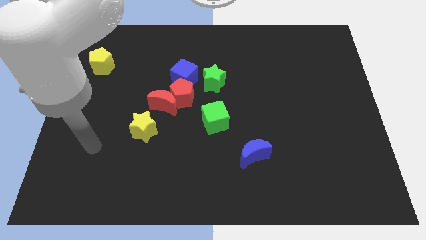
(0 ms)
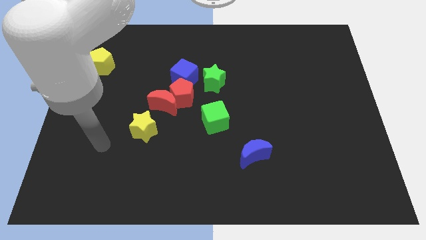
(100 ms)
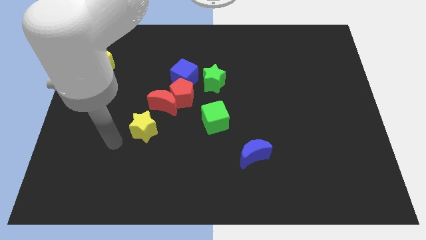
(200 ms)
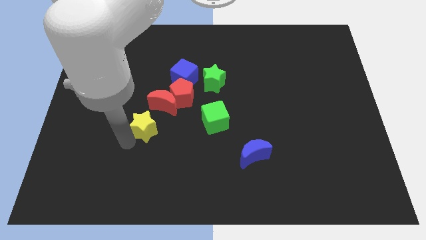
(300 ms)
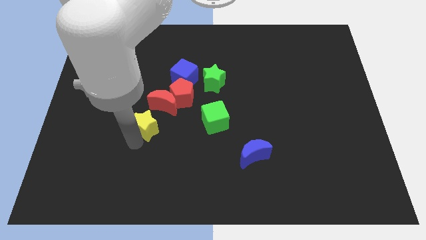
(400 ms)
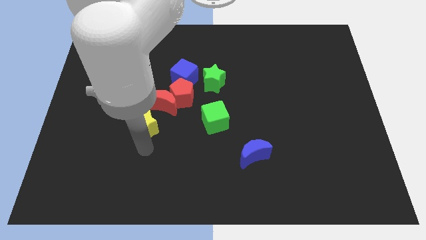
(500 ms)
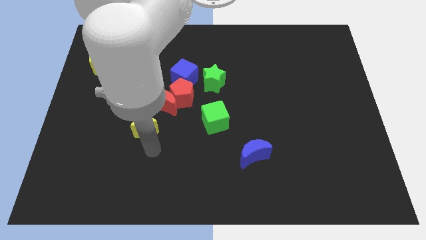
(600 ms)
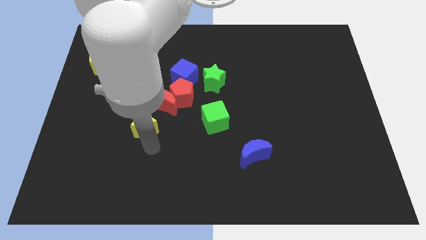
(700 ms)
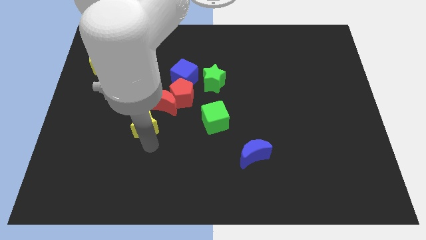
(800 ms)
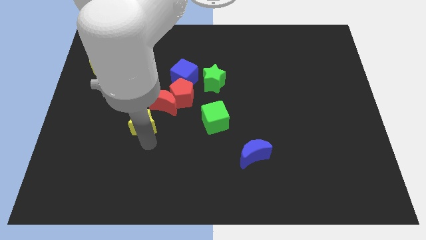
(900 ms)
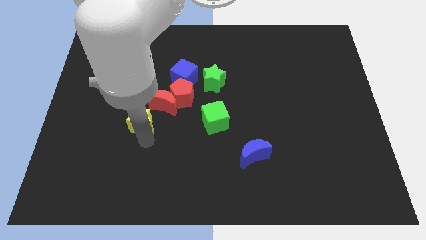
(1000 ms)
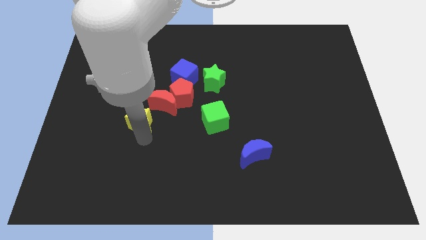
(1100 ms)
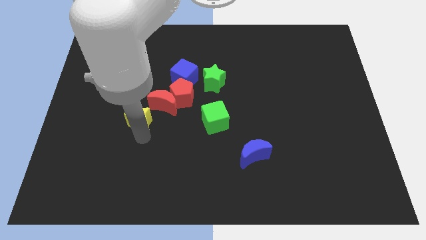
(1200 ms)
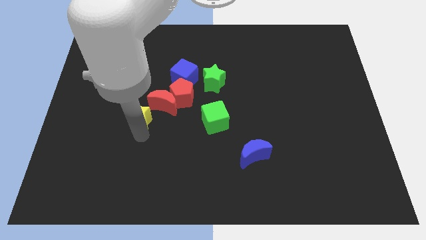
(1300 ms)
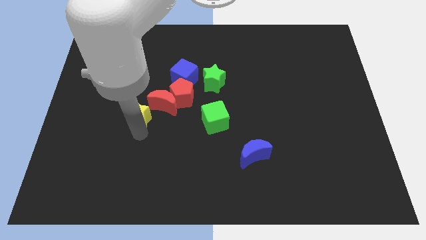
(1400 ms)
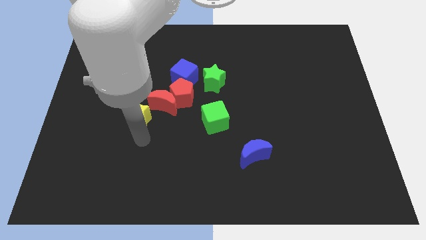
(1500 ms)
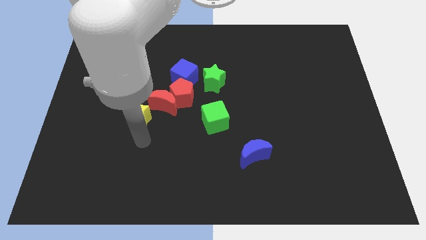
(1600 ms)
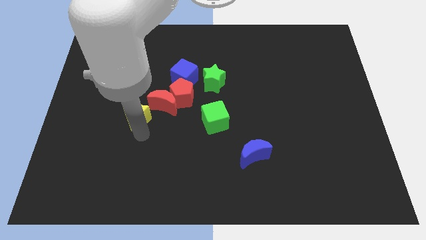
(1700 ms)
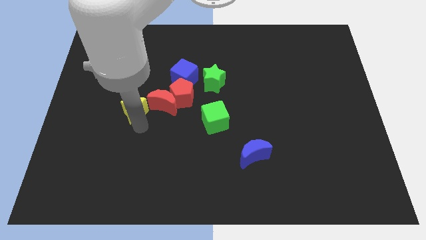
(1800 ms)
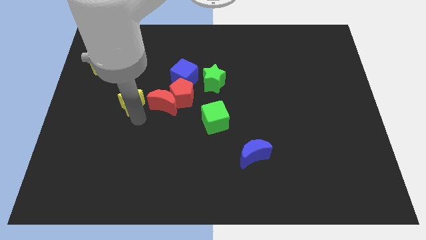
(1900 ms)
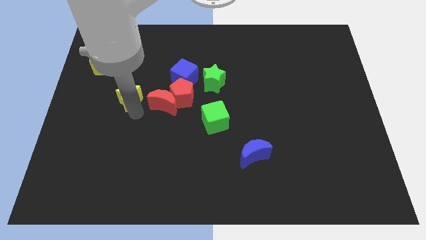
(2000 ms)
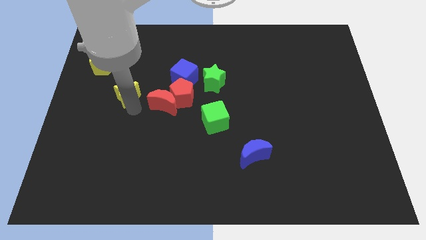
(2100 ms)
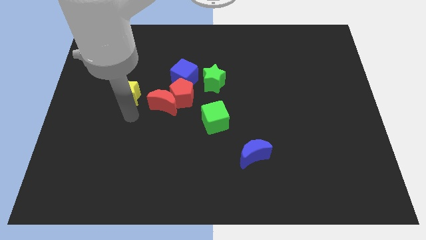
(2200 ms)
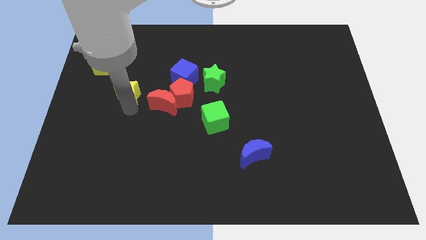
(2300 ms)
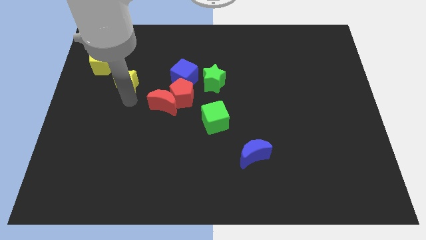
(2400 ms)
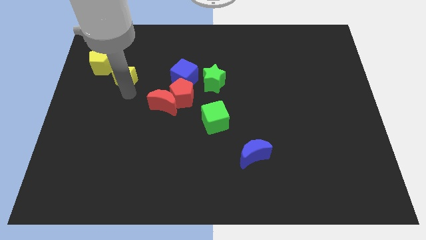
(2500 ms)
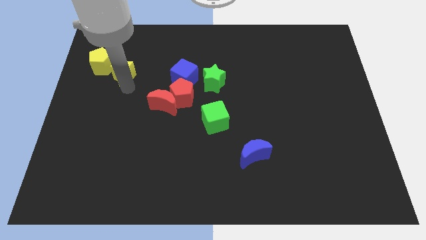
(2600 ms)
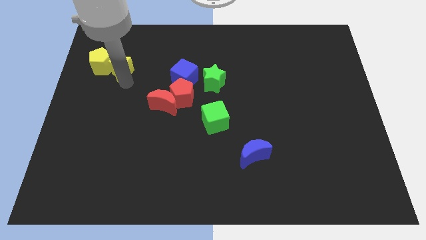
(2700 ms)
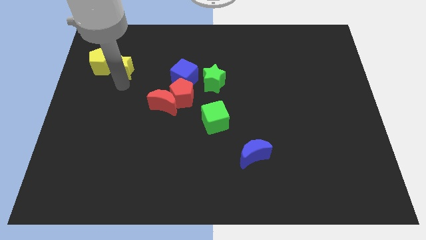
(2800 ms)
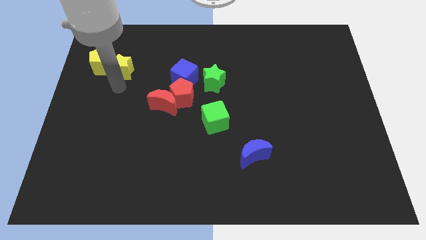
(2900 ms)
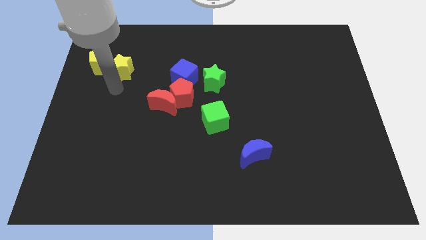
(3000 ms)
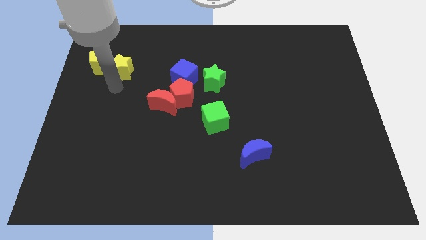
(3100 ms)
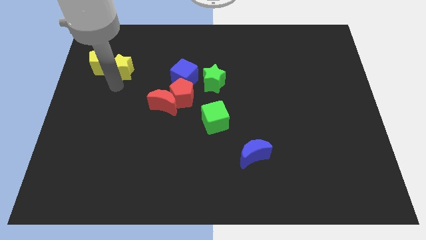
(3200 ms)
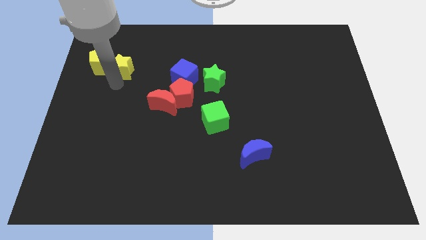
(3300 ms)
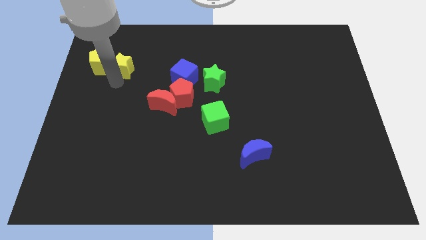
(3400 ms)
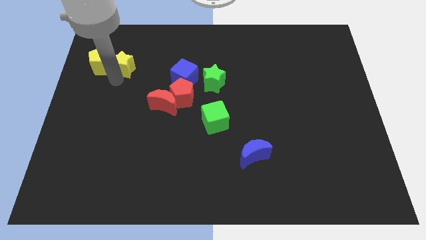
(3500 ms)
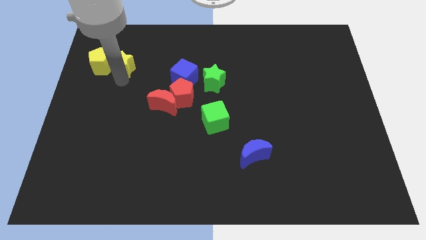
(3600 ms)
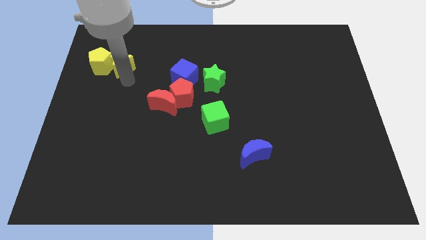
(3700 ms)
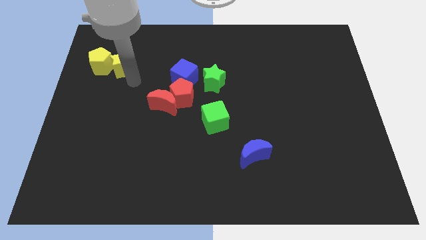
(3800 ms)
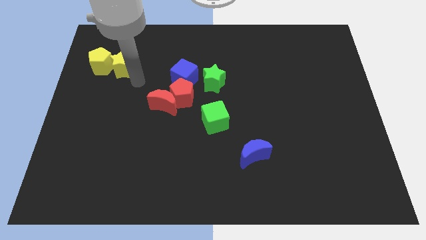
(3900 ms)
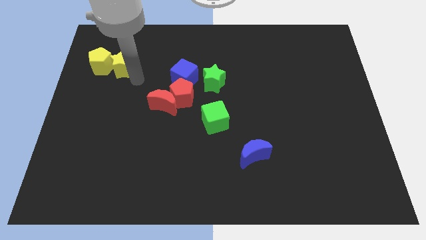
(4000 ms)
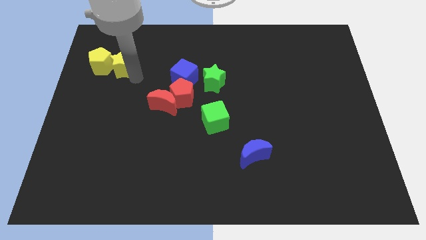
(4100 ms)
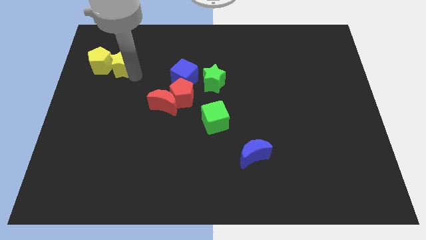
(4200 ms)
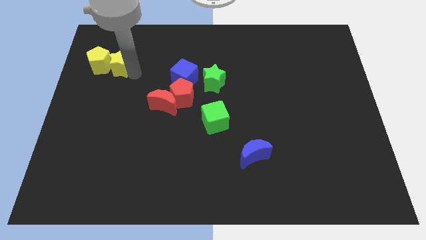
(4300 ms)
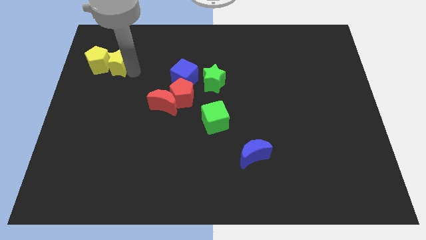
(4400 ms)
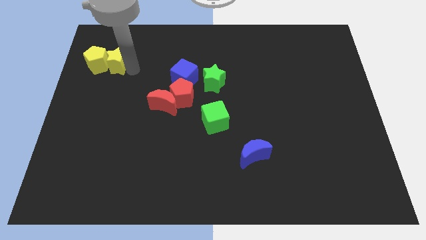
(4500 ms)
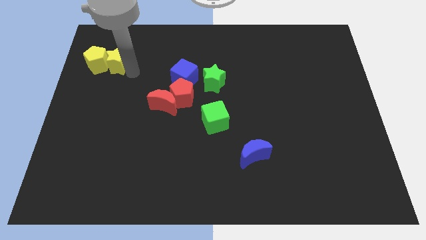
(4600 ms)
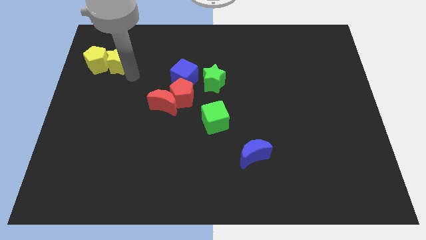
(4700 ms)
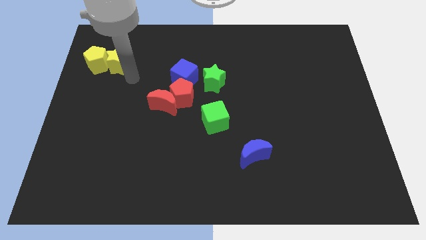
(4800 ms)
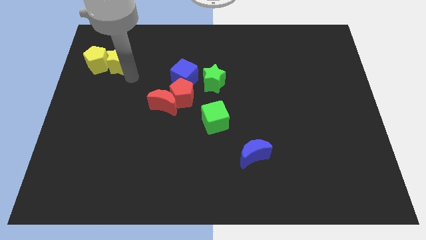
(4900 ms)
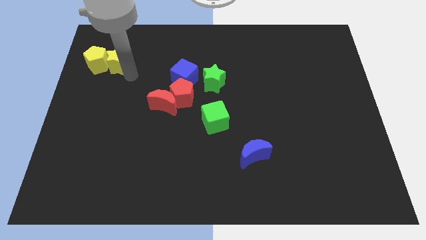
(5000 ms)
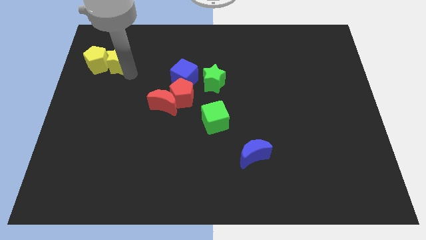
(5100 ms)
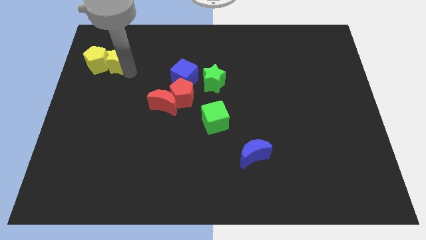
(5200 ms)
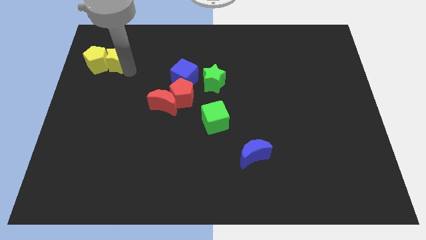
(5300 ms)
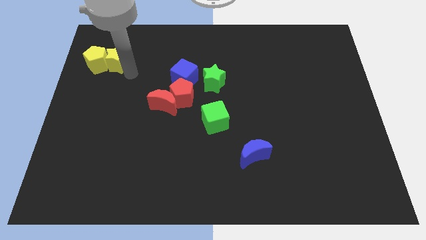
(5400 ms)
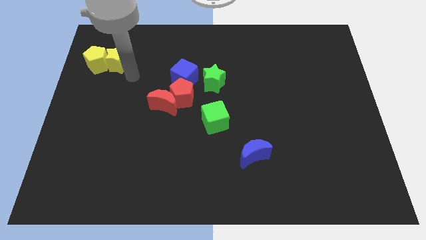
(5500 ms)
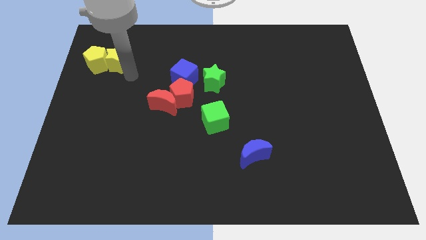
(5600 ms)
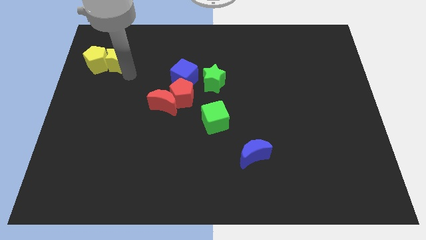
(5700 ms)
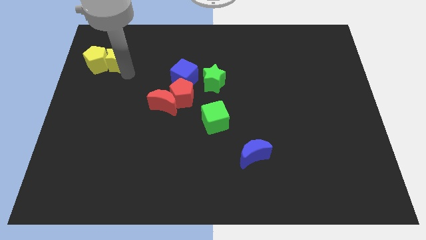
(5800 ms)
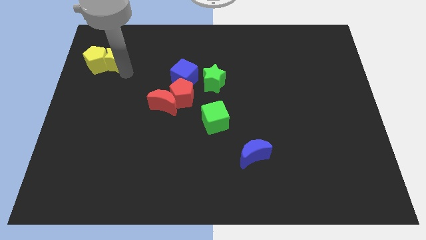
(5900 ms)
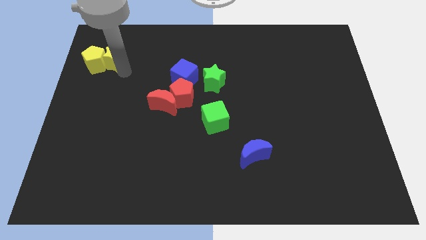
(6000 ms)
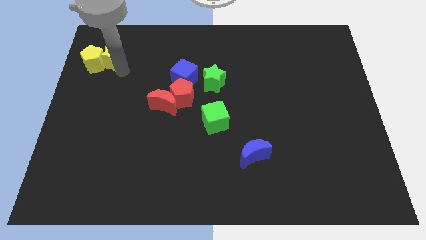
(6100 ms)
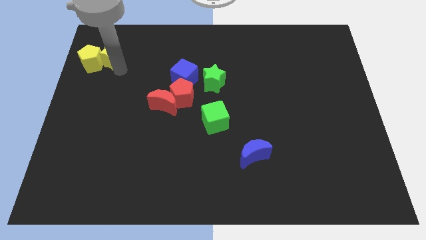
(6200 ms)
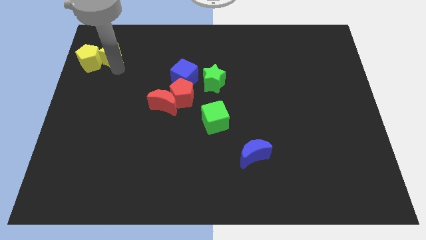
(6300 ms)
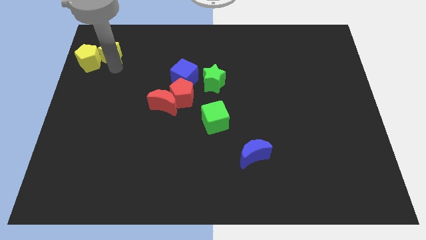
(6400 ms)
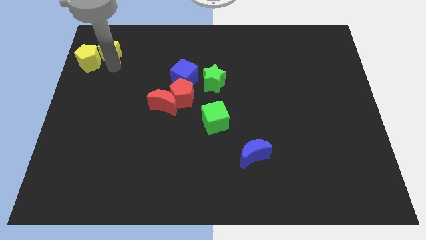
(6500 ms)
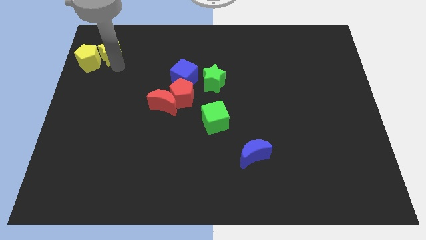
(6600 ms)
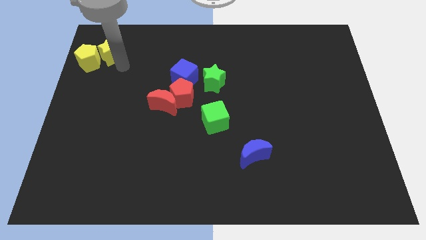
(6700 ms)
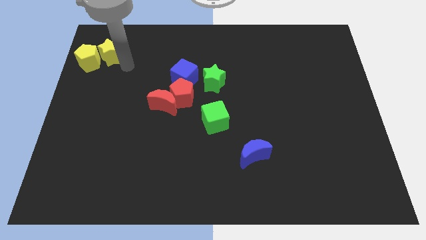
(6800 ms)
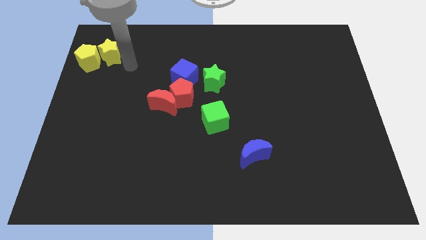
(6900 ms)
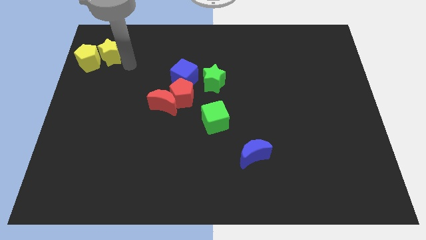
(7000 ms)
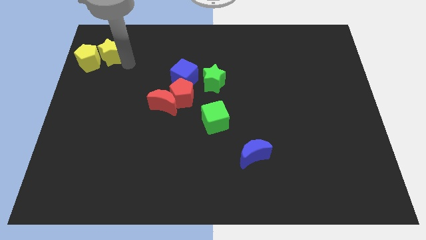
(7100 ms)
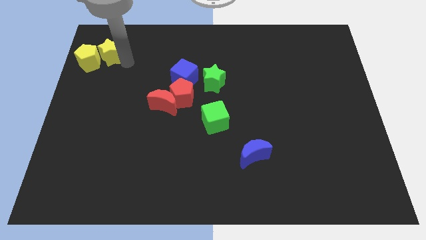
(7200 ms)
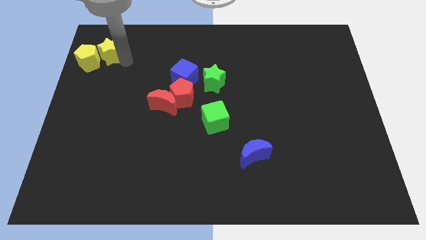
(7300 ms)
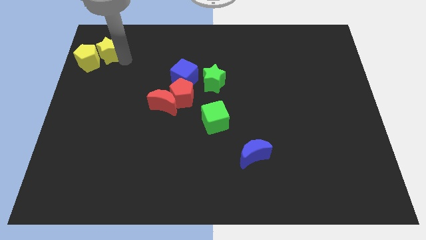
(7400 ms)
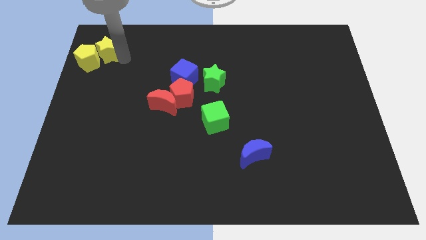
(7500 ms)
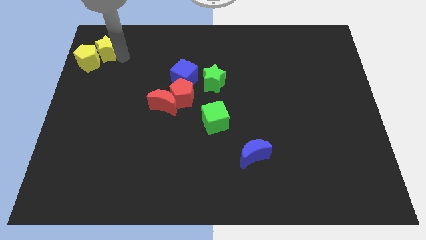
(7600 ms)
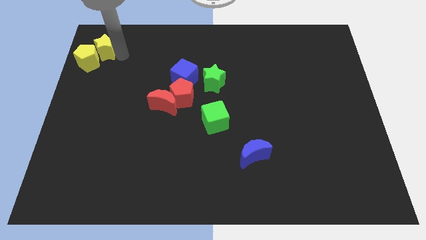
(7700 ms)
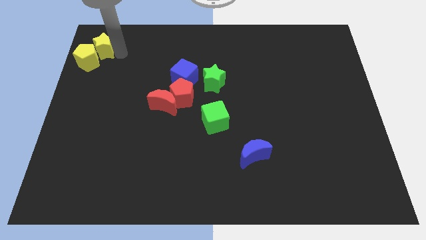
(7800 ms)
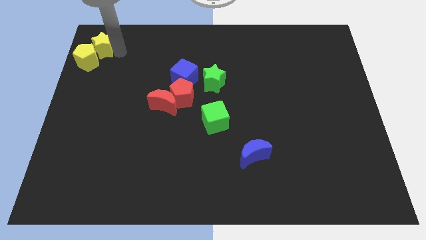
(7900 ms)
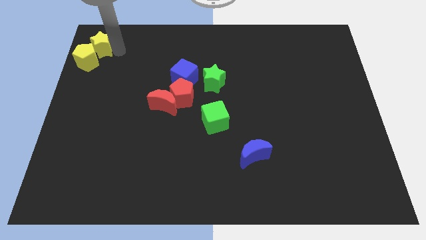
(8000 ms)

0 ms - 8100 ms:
move the yellow star to the top left
